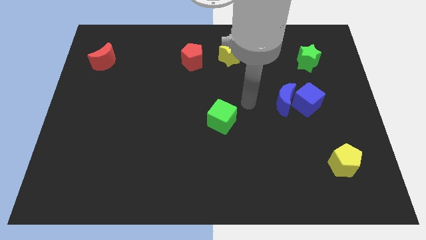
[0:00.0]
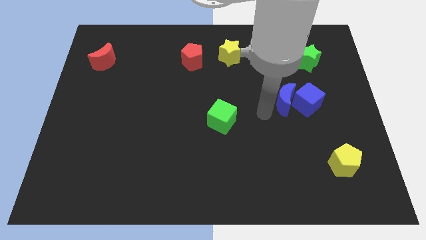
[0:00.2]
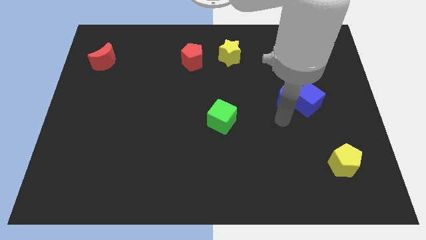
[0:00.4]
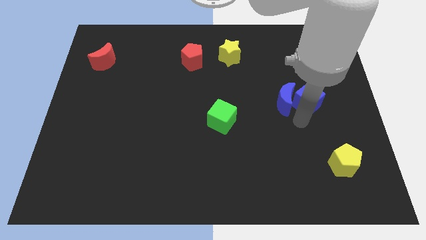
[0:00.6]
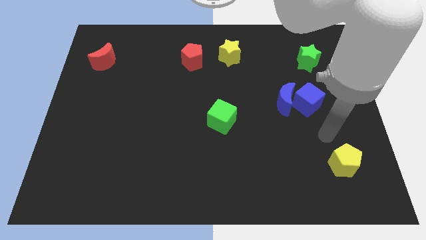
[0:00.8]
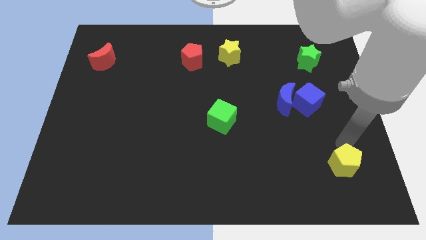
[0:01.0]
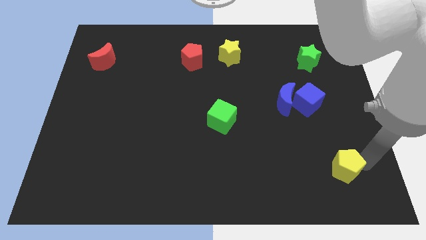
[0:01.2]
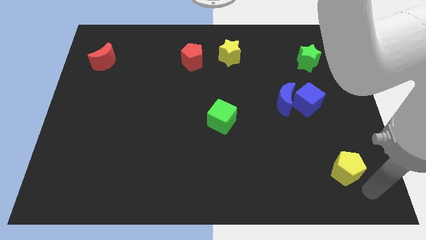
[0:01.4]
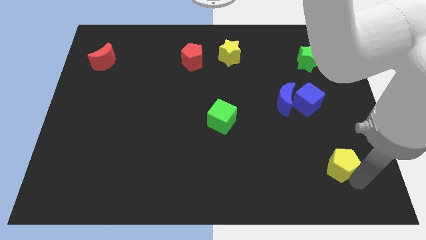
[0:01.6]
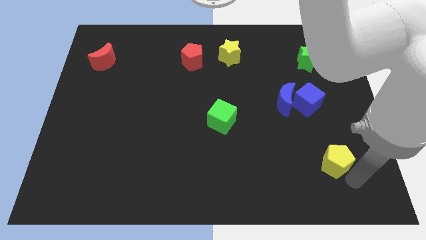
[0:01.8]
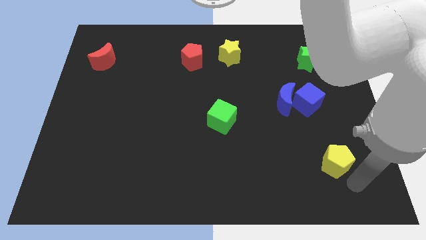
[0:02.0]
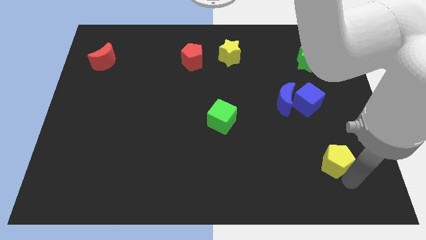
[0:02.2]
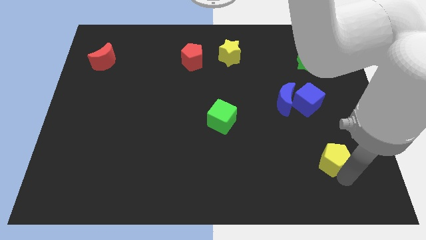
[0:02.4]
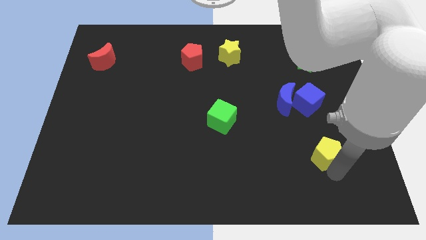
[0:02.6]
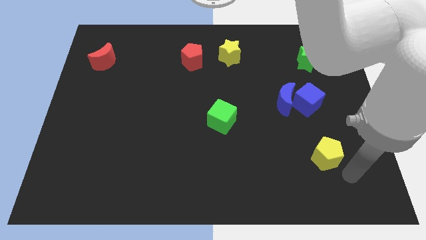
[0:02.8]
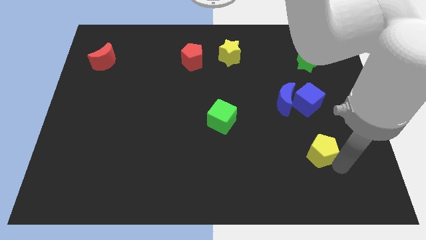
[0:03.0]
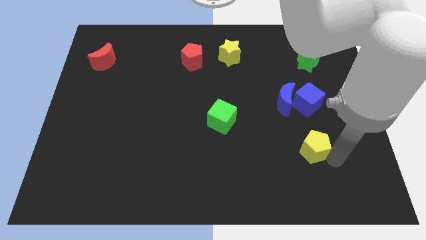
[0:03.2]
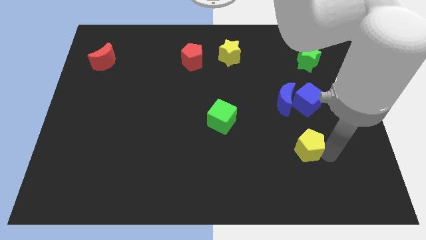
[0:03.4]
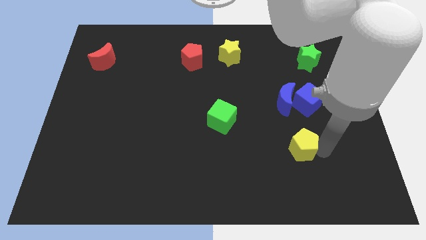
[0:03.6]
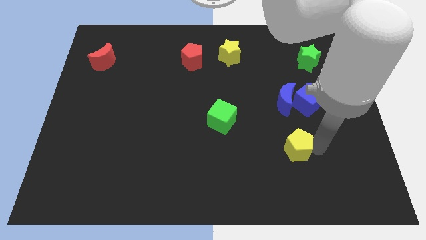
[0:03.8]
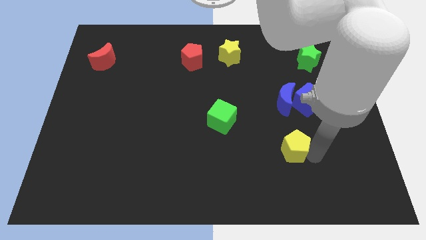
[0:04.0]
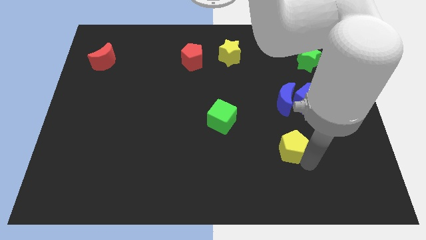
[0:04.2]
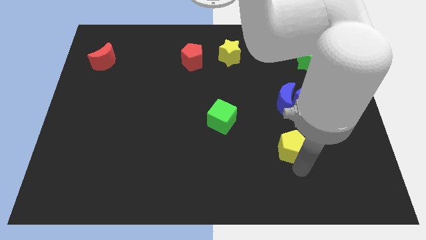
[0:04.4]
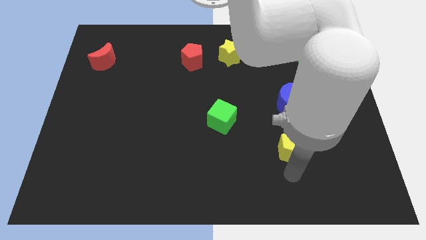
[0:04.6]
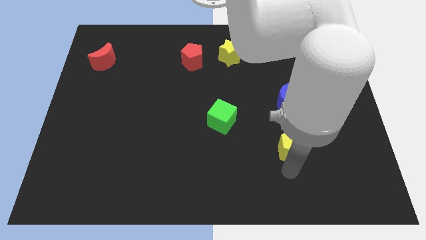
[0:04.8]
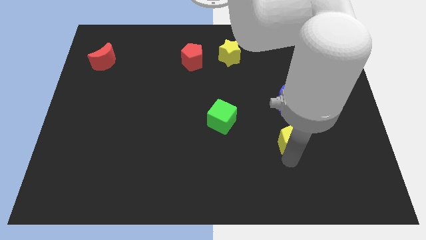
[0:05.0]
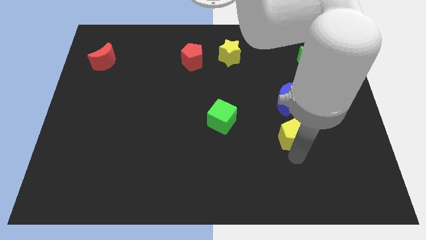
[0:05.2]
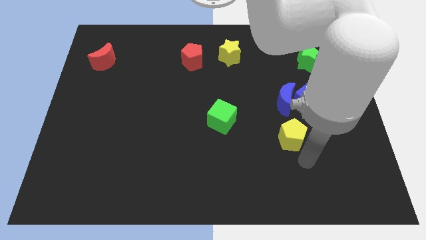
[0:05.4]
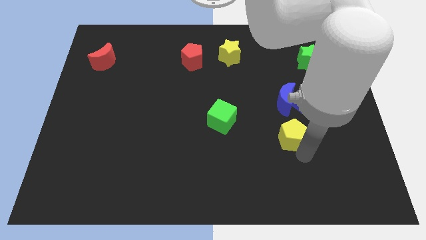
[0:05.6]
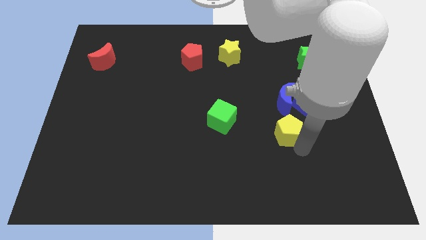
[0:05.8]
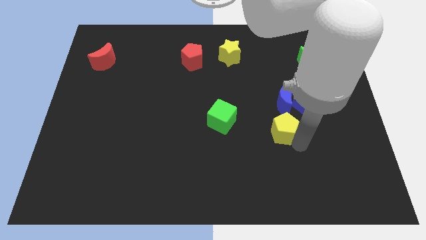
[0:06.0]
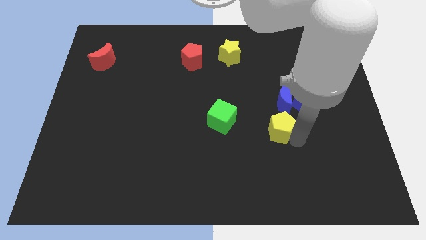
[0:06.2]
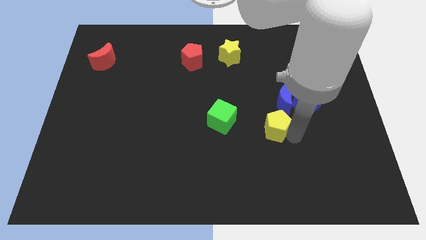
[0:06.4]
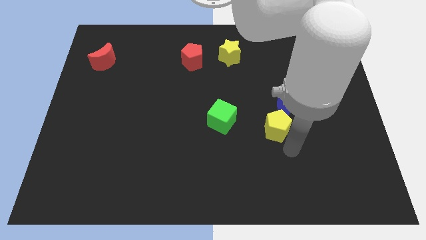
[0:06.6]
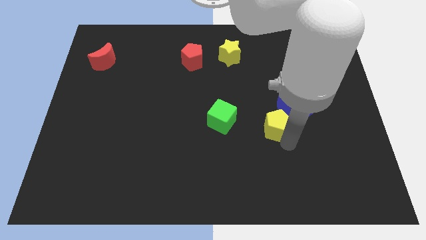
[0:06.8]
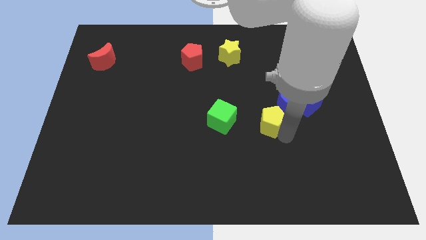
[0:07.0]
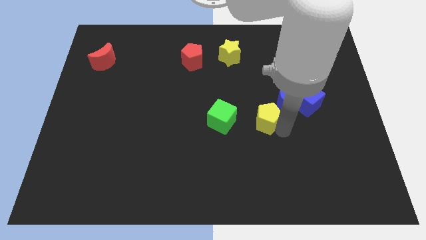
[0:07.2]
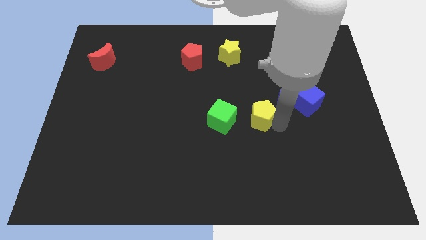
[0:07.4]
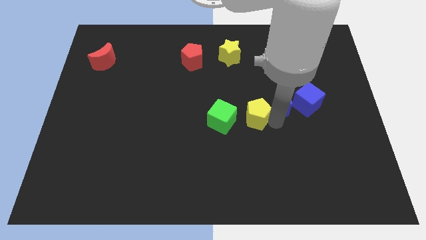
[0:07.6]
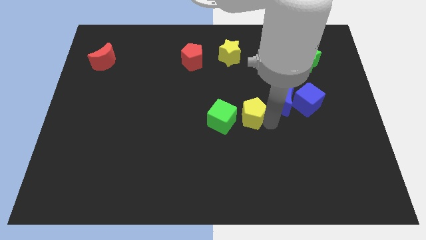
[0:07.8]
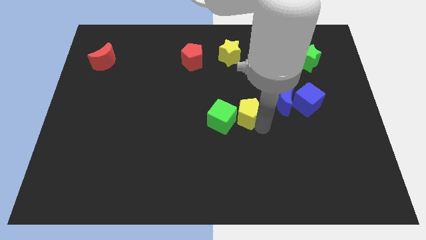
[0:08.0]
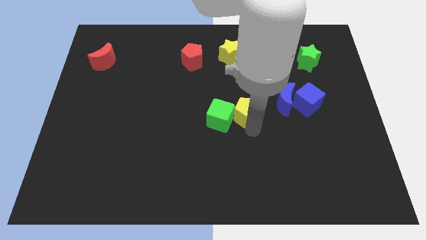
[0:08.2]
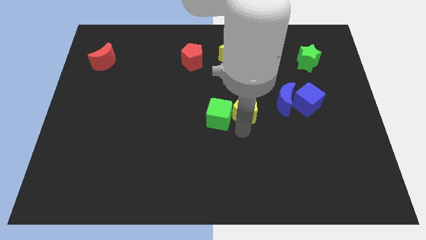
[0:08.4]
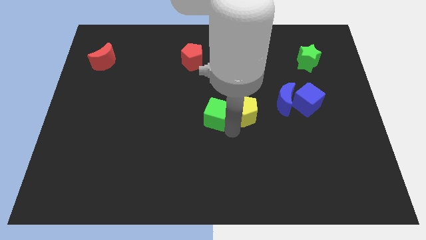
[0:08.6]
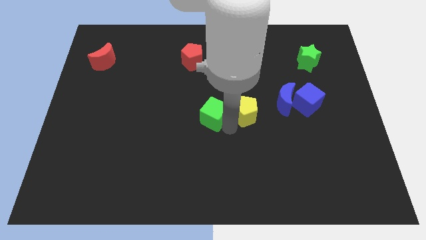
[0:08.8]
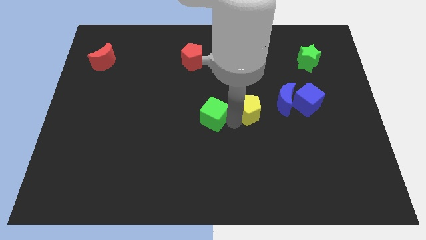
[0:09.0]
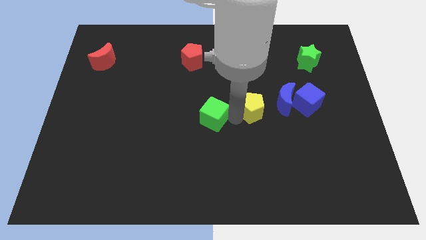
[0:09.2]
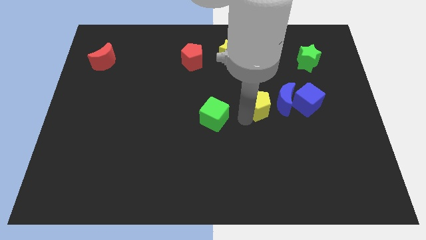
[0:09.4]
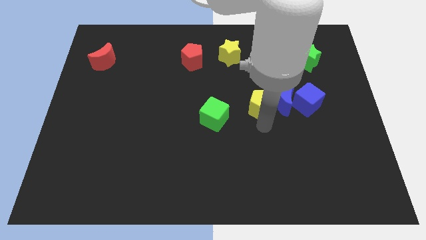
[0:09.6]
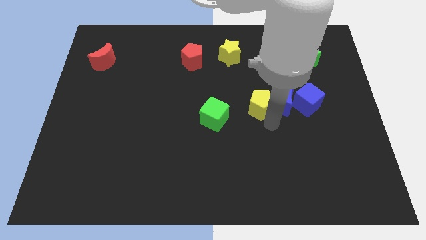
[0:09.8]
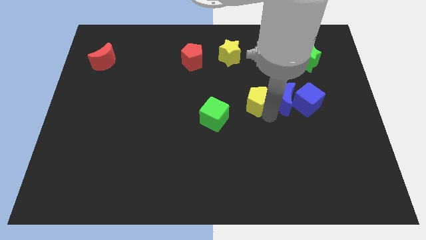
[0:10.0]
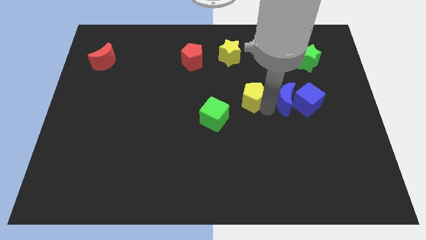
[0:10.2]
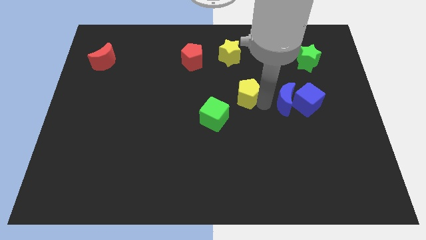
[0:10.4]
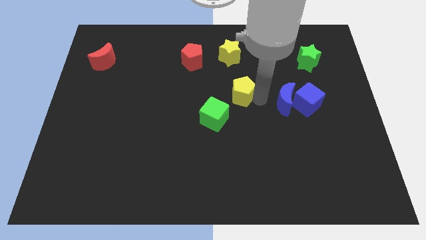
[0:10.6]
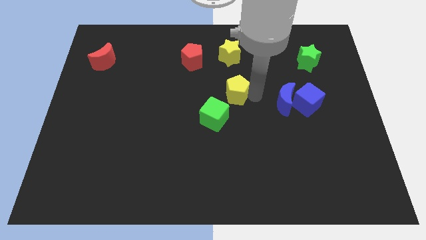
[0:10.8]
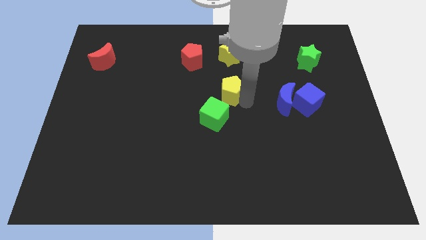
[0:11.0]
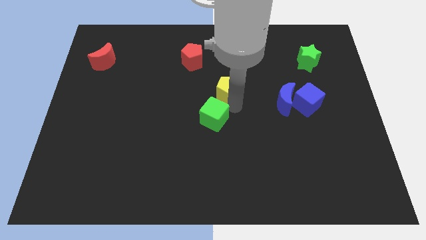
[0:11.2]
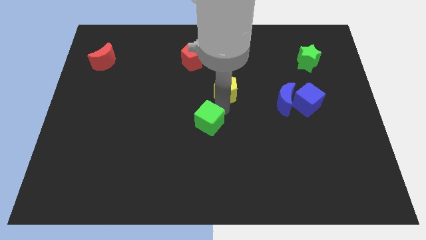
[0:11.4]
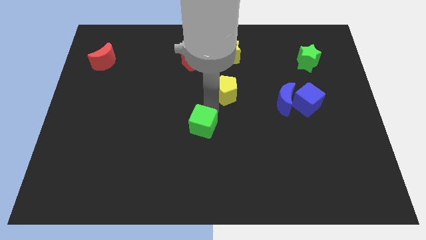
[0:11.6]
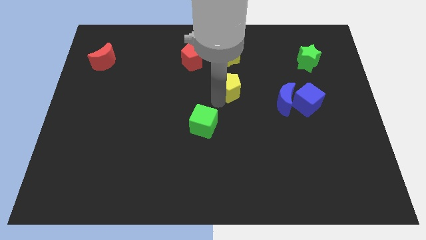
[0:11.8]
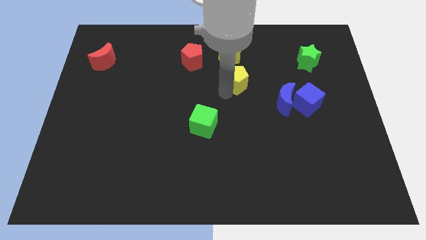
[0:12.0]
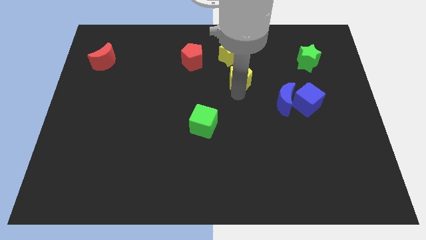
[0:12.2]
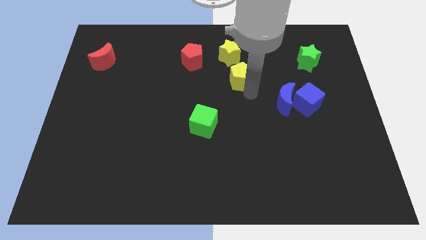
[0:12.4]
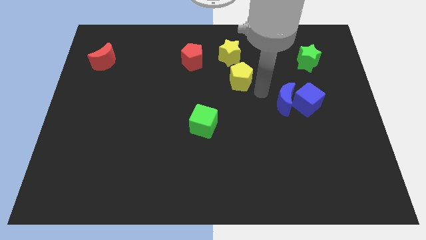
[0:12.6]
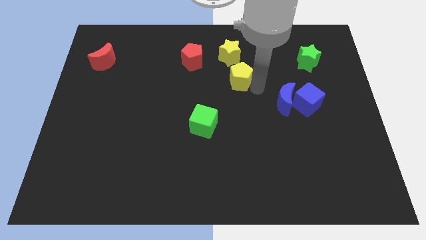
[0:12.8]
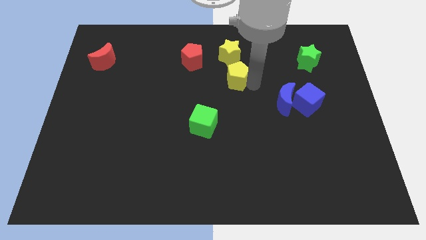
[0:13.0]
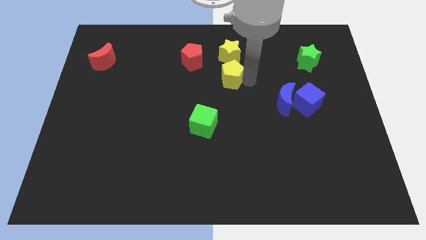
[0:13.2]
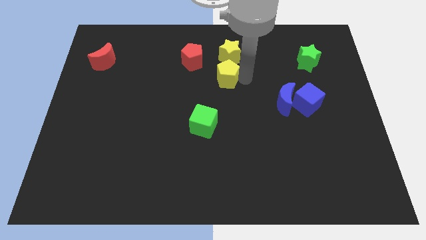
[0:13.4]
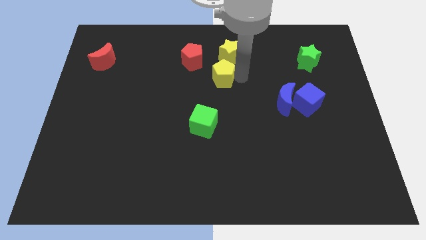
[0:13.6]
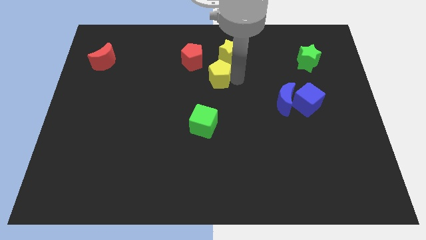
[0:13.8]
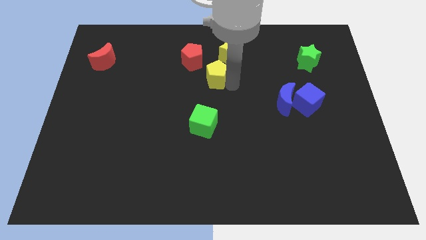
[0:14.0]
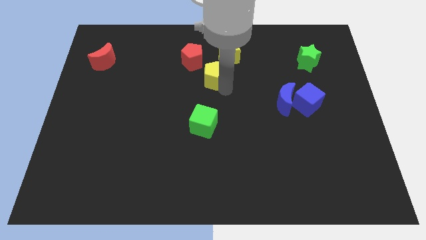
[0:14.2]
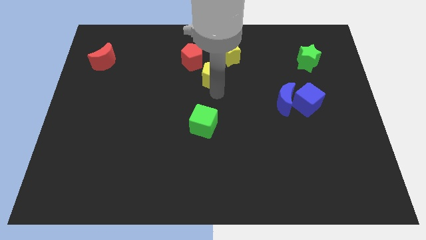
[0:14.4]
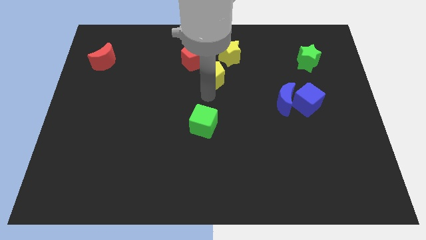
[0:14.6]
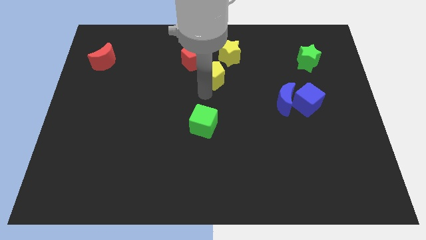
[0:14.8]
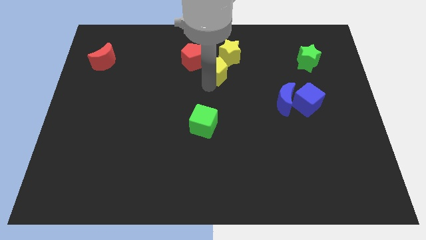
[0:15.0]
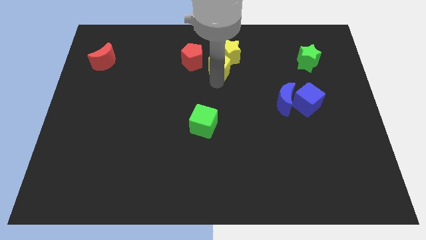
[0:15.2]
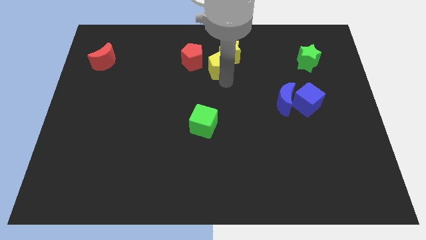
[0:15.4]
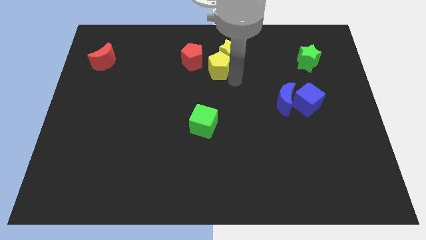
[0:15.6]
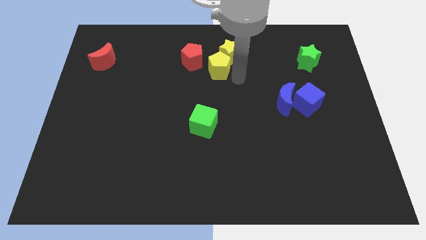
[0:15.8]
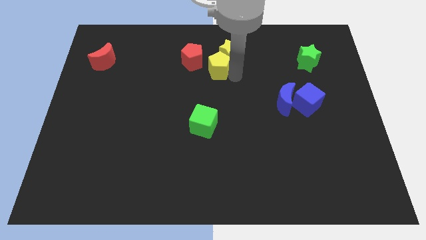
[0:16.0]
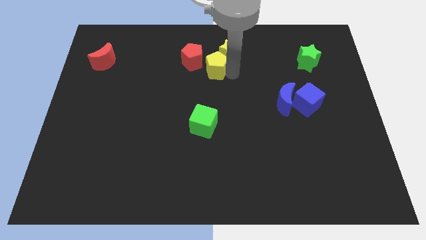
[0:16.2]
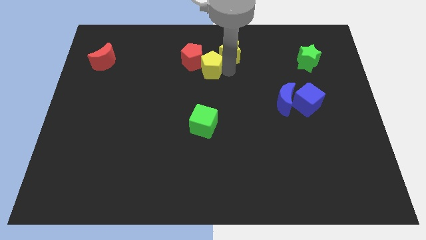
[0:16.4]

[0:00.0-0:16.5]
move the yellow pentagon to the red pentagon
